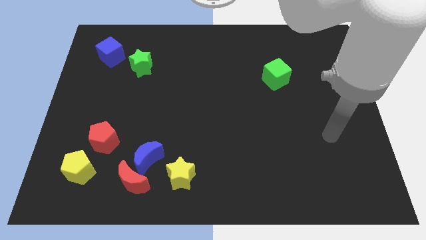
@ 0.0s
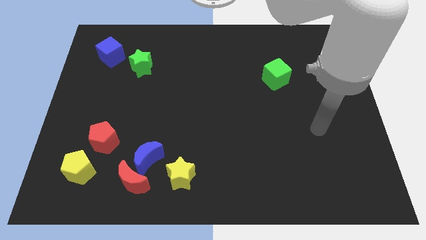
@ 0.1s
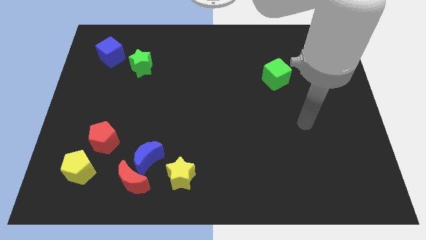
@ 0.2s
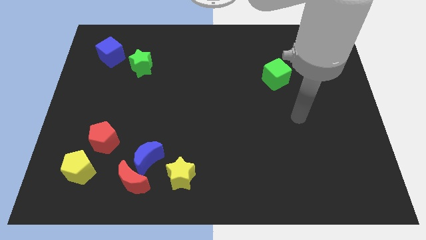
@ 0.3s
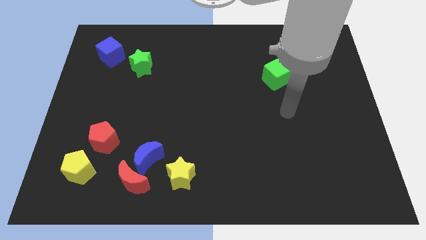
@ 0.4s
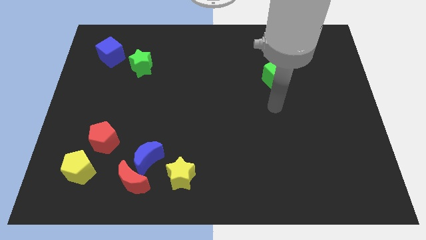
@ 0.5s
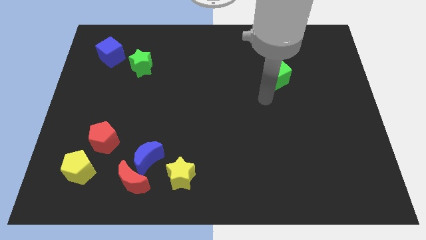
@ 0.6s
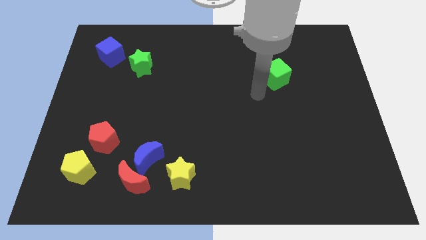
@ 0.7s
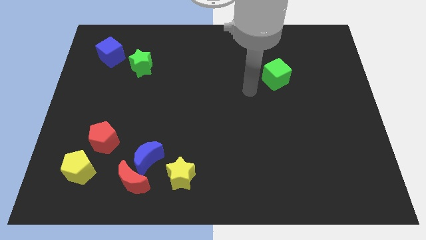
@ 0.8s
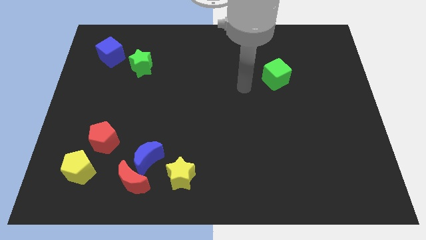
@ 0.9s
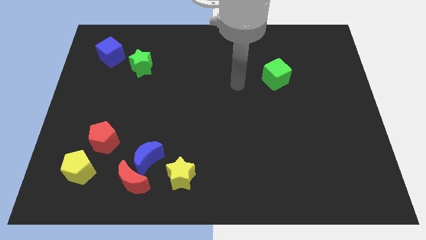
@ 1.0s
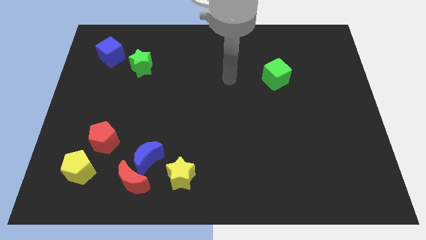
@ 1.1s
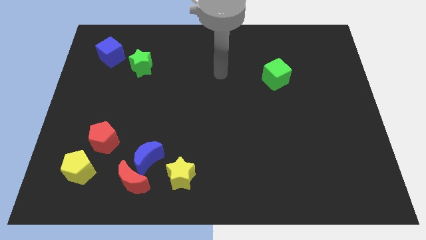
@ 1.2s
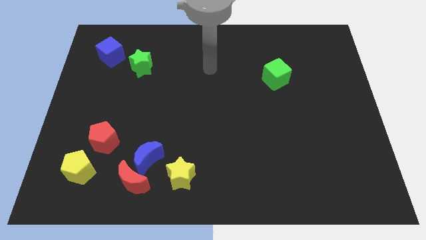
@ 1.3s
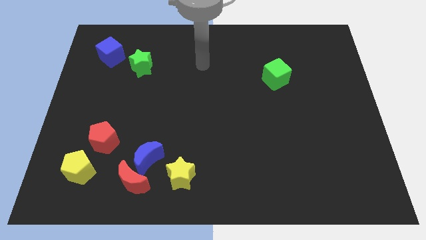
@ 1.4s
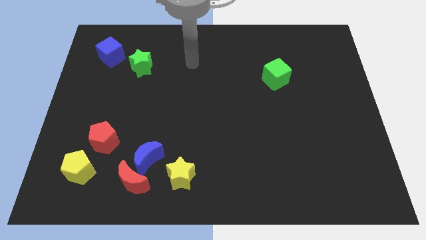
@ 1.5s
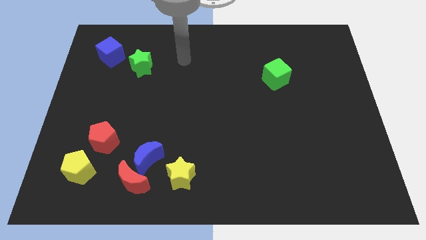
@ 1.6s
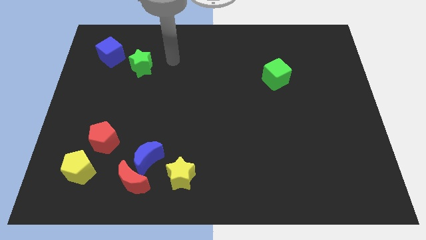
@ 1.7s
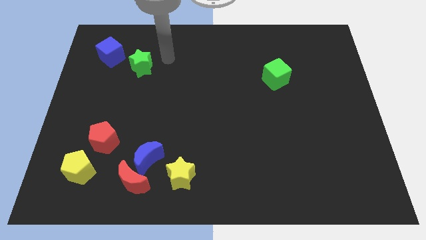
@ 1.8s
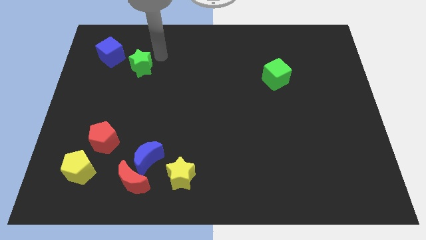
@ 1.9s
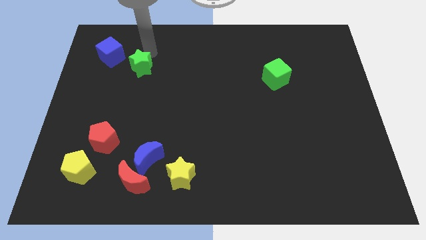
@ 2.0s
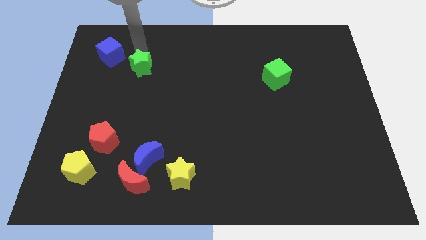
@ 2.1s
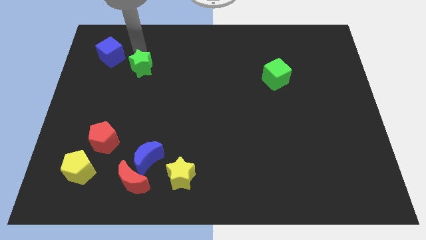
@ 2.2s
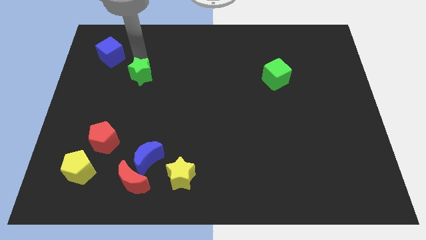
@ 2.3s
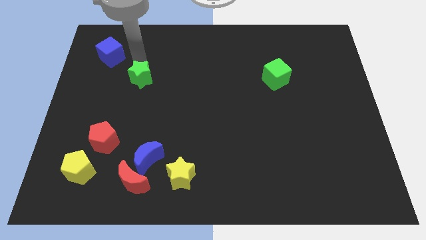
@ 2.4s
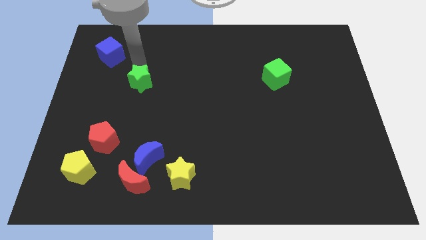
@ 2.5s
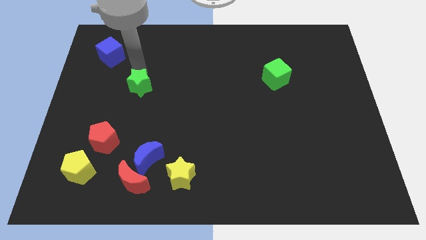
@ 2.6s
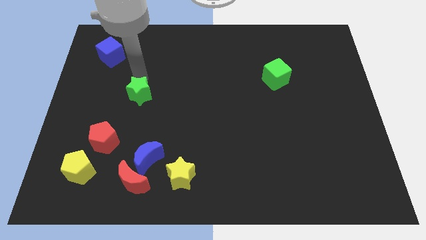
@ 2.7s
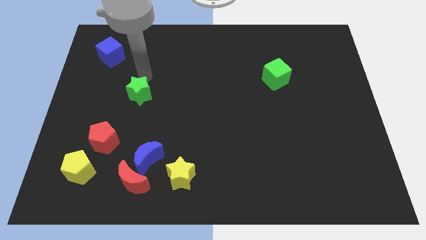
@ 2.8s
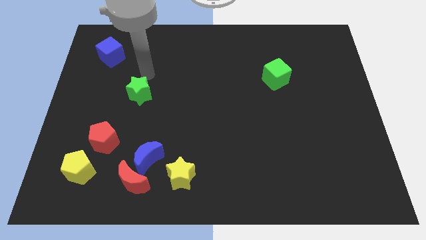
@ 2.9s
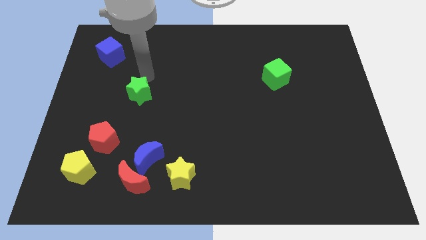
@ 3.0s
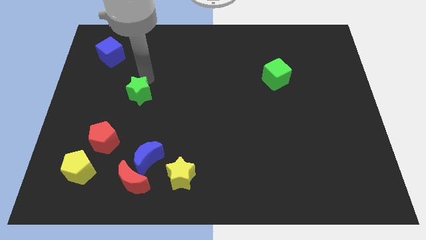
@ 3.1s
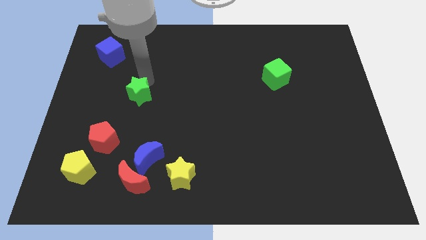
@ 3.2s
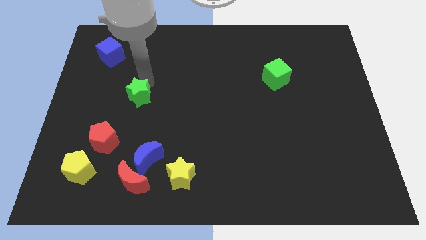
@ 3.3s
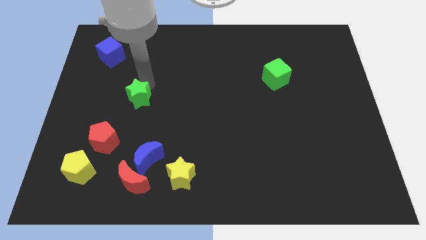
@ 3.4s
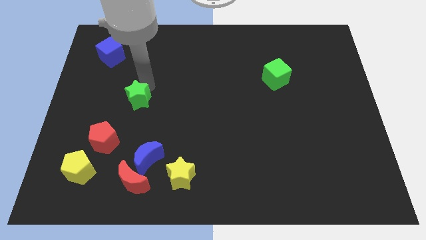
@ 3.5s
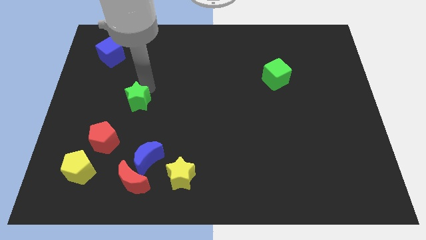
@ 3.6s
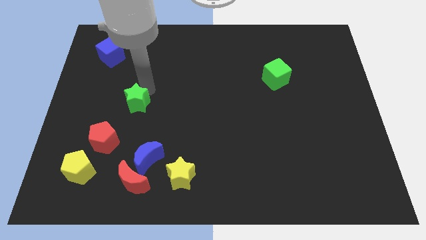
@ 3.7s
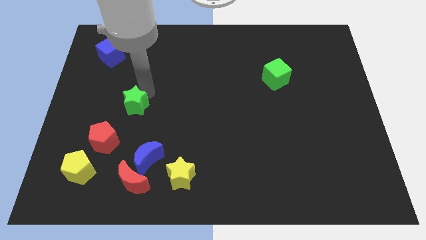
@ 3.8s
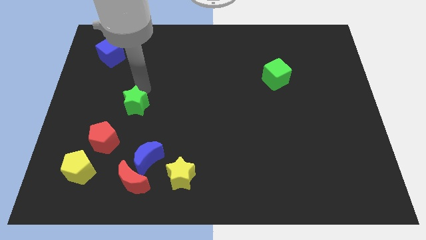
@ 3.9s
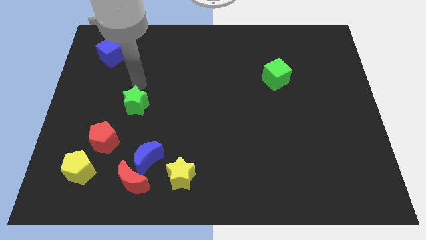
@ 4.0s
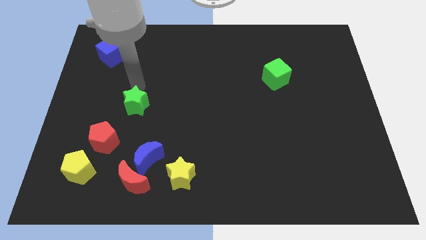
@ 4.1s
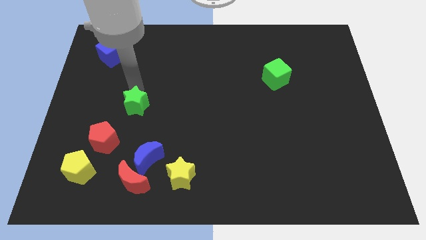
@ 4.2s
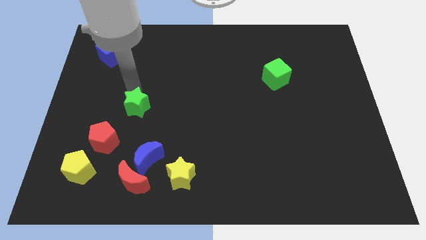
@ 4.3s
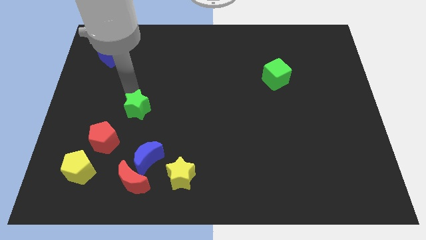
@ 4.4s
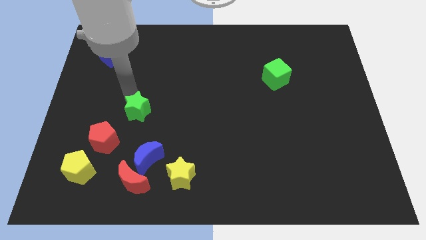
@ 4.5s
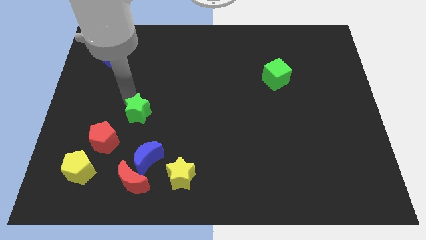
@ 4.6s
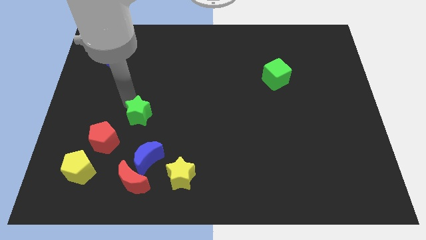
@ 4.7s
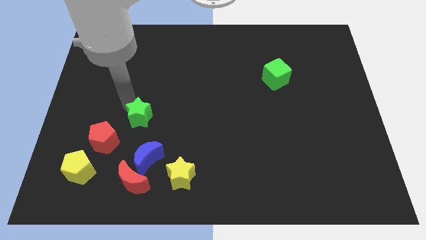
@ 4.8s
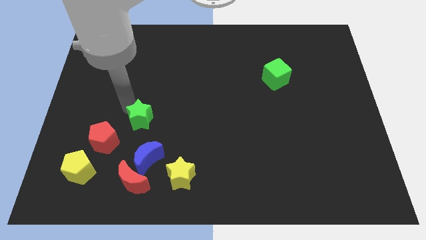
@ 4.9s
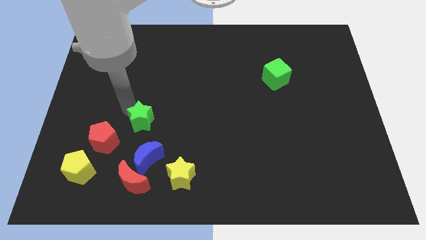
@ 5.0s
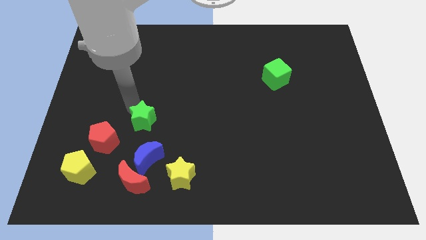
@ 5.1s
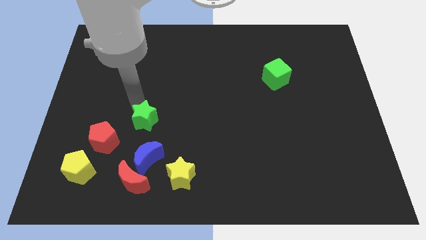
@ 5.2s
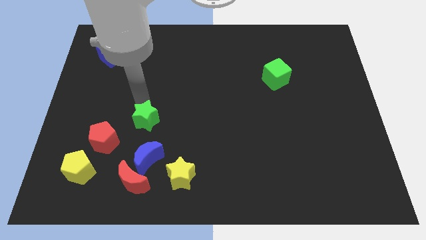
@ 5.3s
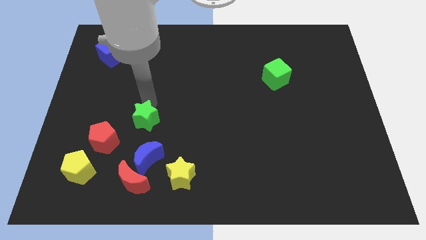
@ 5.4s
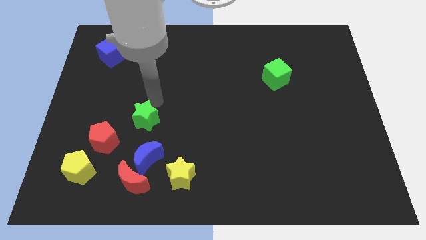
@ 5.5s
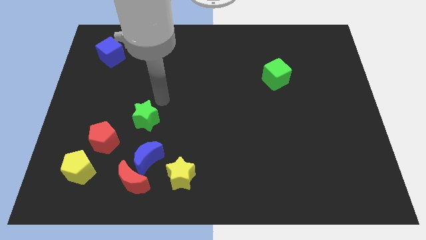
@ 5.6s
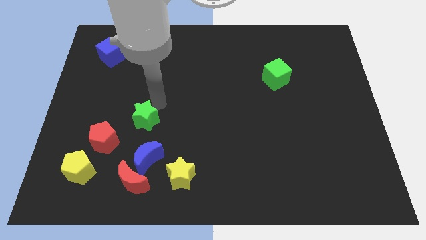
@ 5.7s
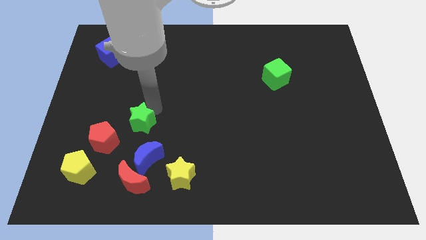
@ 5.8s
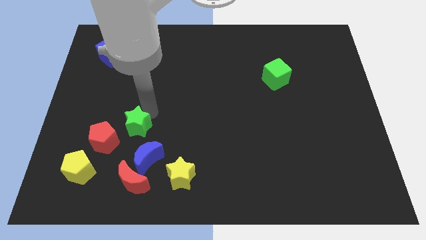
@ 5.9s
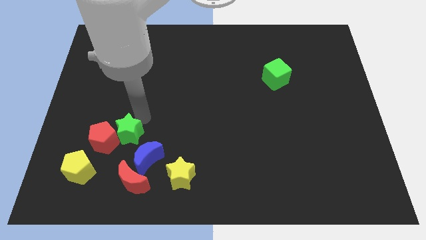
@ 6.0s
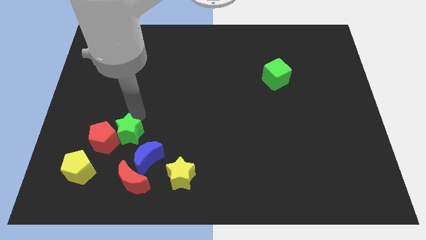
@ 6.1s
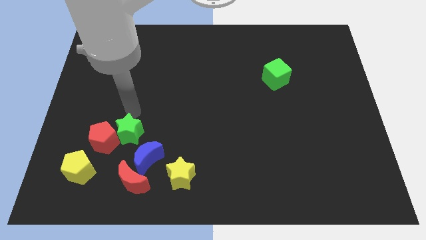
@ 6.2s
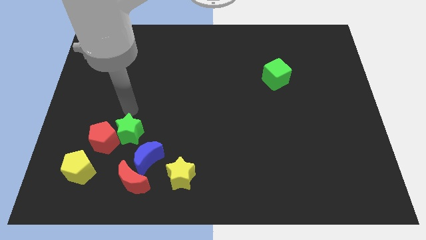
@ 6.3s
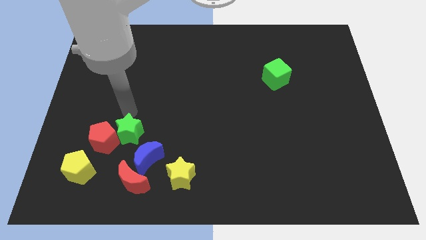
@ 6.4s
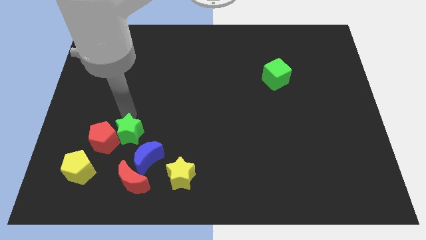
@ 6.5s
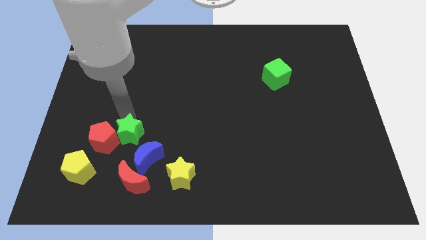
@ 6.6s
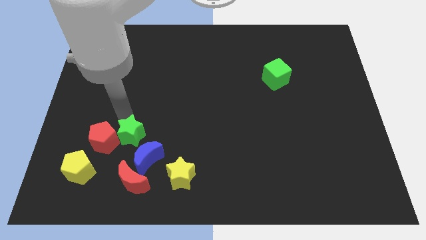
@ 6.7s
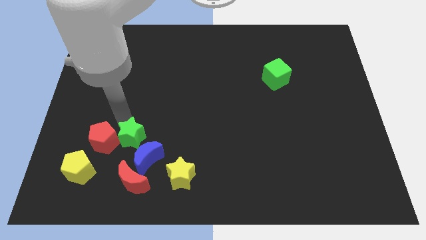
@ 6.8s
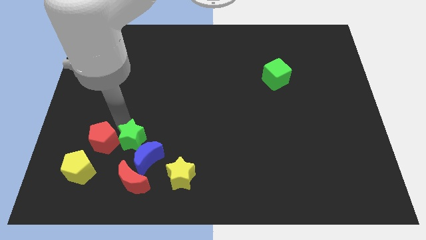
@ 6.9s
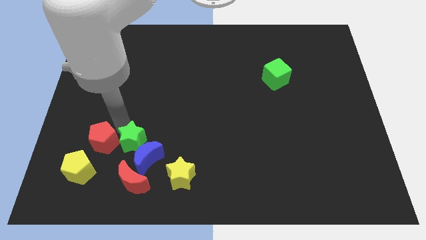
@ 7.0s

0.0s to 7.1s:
move the green star to the left of the blue moon
